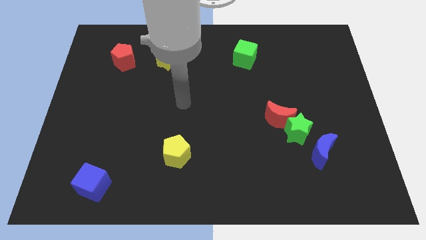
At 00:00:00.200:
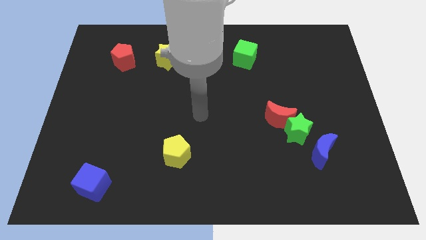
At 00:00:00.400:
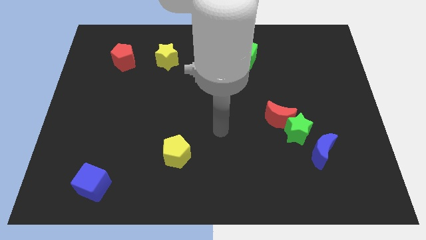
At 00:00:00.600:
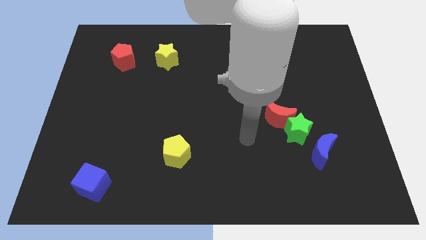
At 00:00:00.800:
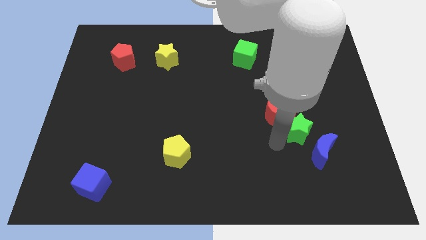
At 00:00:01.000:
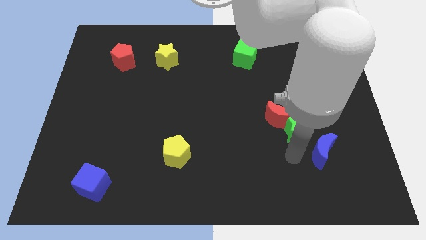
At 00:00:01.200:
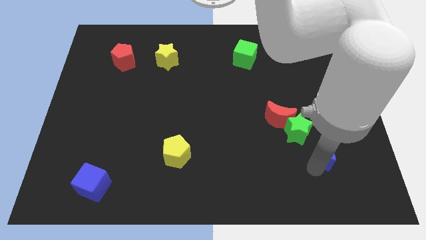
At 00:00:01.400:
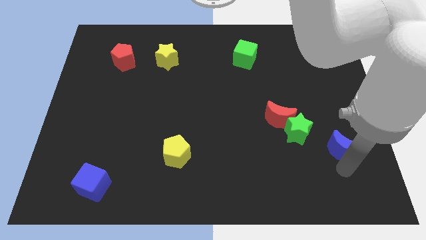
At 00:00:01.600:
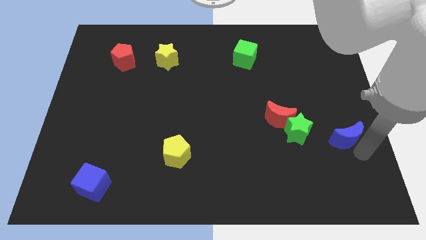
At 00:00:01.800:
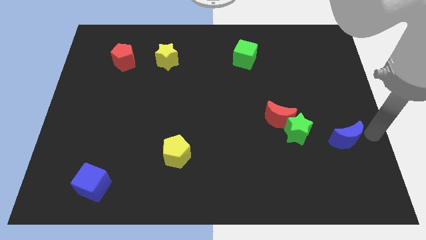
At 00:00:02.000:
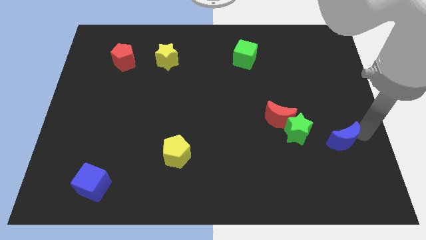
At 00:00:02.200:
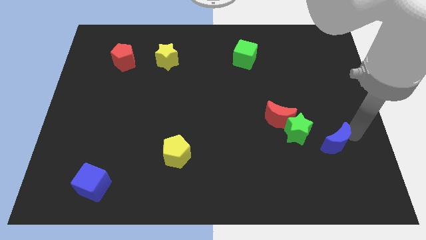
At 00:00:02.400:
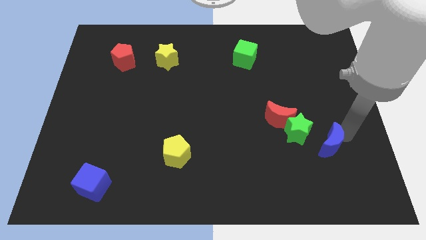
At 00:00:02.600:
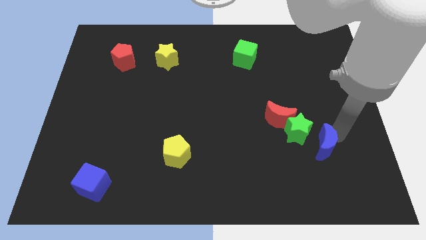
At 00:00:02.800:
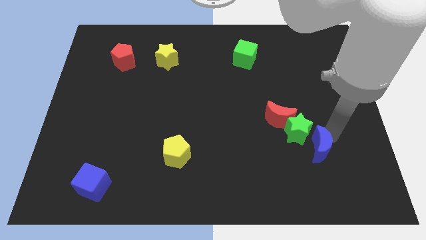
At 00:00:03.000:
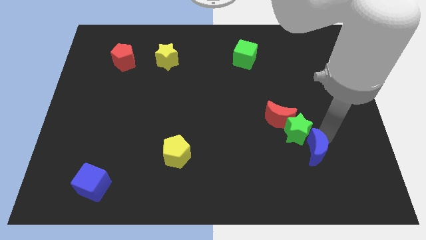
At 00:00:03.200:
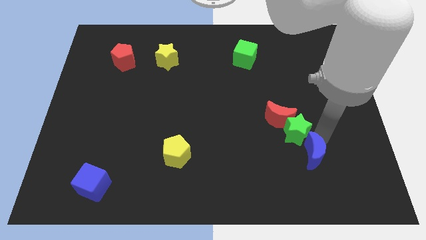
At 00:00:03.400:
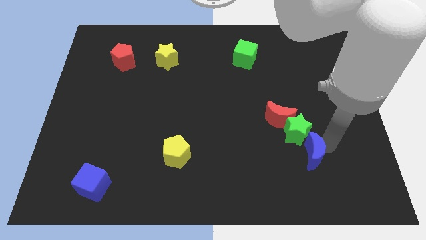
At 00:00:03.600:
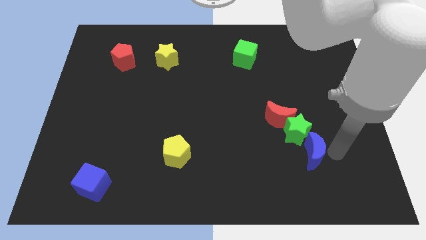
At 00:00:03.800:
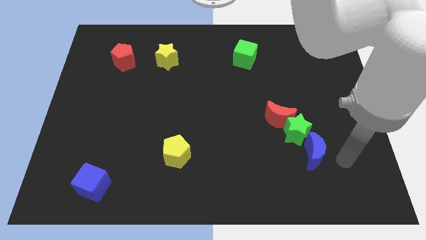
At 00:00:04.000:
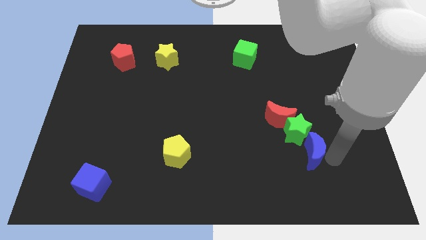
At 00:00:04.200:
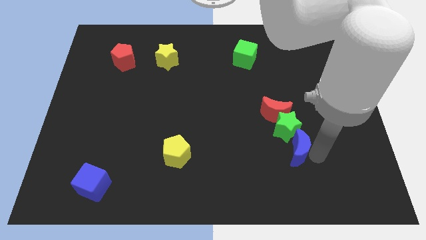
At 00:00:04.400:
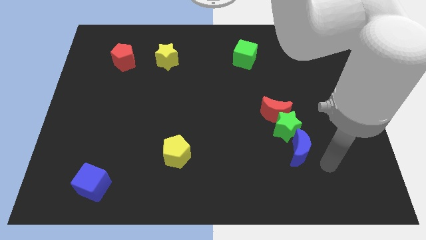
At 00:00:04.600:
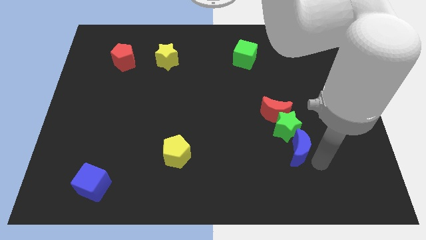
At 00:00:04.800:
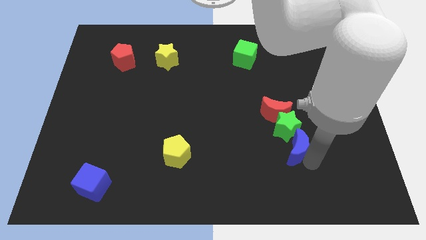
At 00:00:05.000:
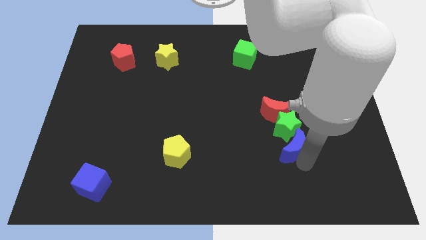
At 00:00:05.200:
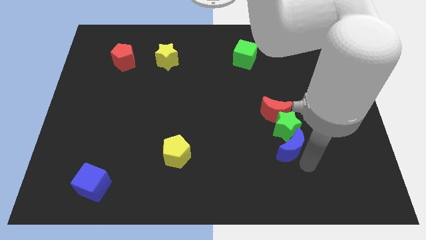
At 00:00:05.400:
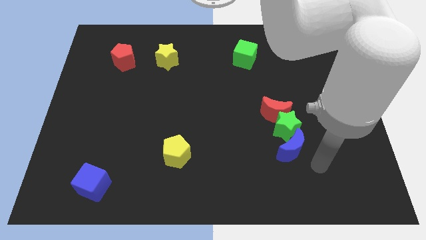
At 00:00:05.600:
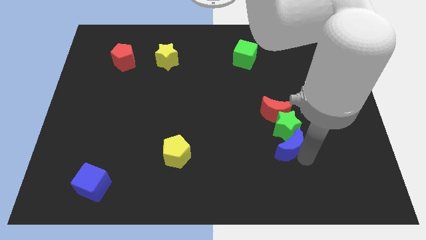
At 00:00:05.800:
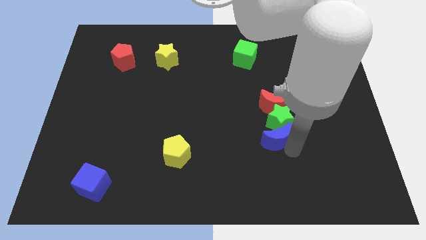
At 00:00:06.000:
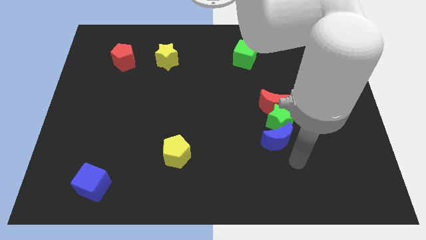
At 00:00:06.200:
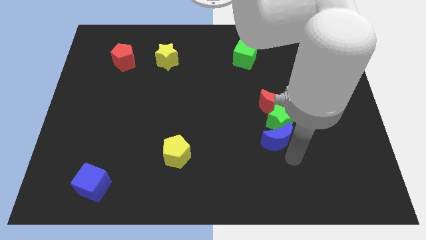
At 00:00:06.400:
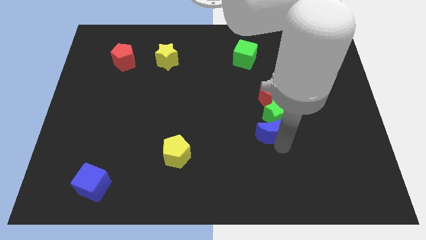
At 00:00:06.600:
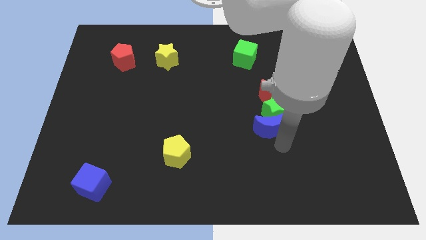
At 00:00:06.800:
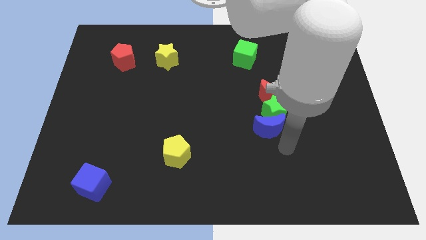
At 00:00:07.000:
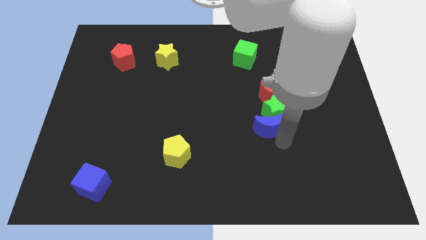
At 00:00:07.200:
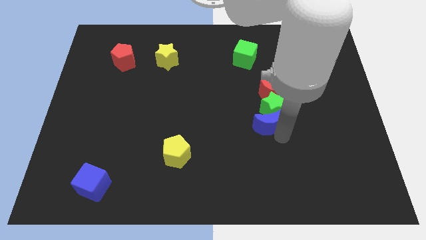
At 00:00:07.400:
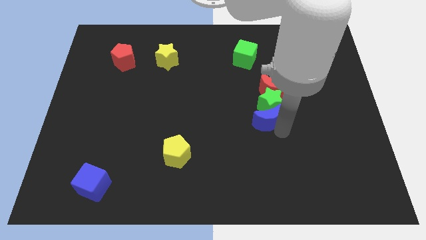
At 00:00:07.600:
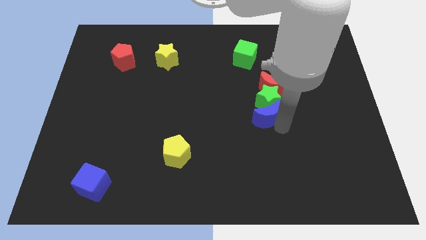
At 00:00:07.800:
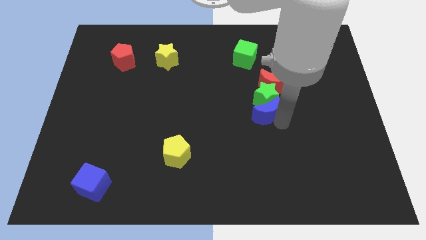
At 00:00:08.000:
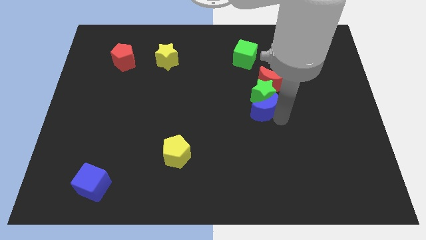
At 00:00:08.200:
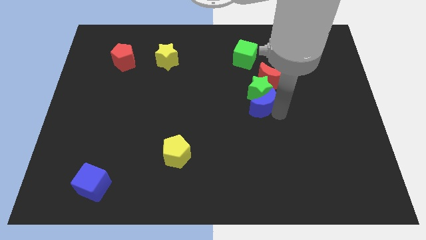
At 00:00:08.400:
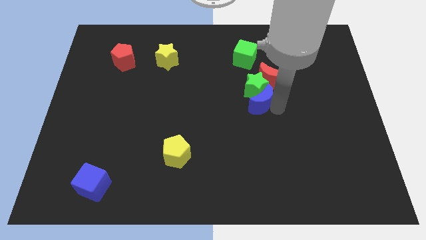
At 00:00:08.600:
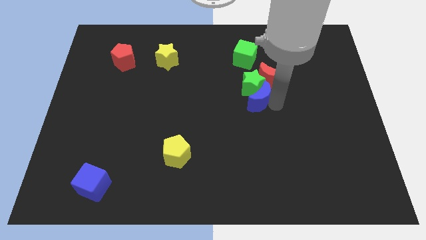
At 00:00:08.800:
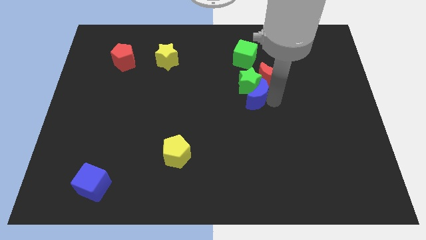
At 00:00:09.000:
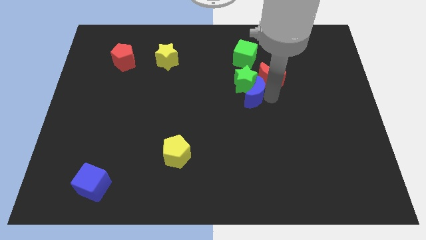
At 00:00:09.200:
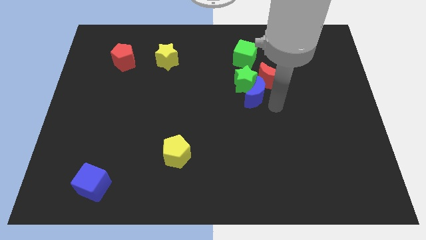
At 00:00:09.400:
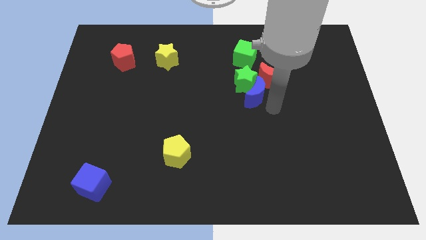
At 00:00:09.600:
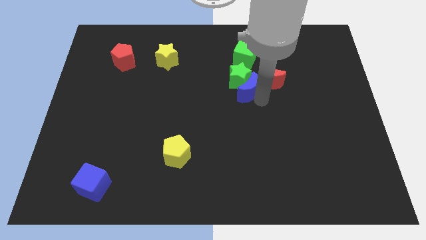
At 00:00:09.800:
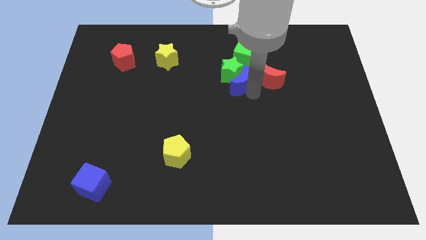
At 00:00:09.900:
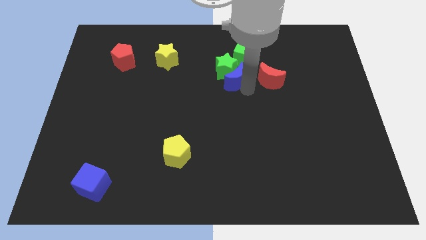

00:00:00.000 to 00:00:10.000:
push the blue moon diagonally down and to the left of the green cube

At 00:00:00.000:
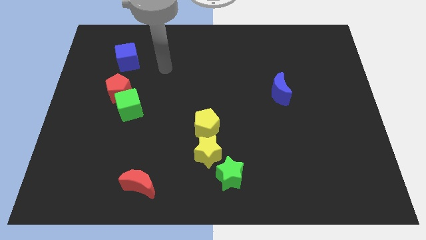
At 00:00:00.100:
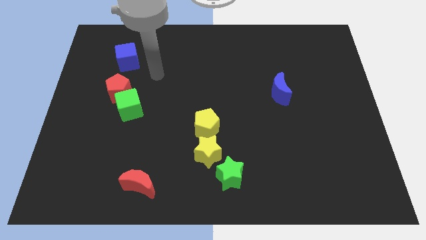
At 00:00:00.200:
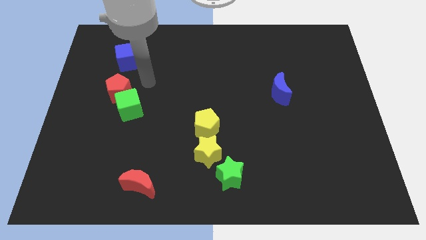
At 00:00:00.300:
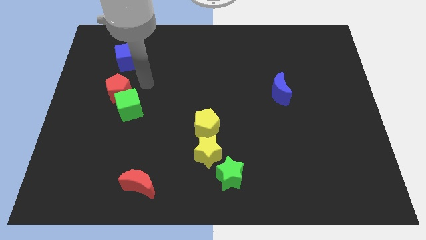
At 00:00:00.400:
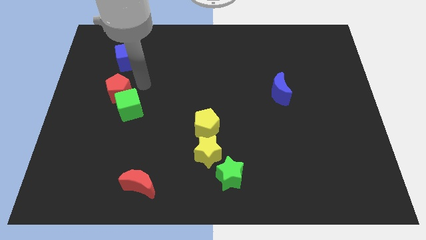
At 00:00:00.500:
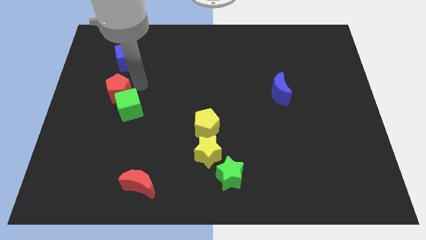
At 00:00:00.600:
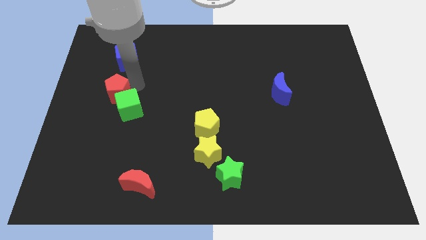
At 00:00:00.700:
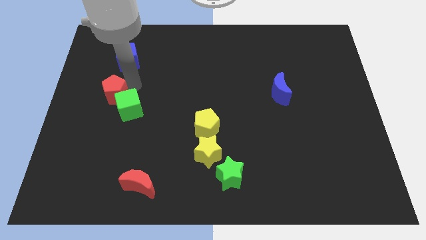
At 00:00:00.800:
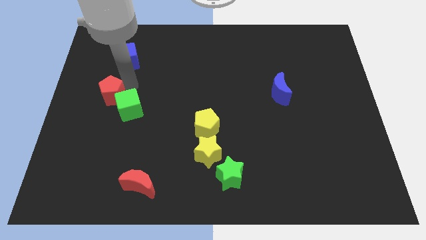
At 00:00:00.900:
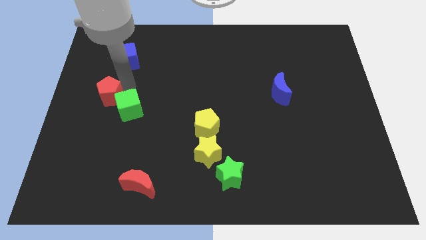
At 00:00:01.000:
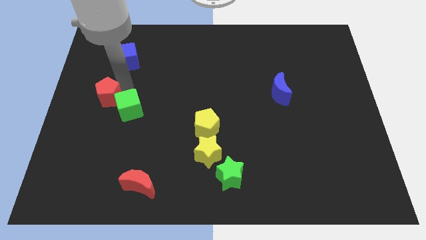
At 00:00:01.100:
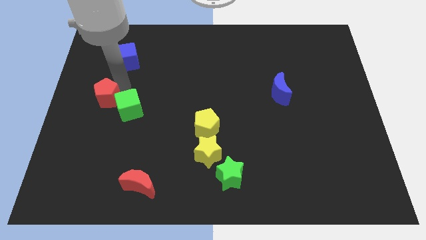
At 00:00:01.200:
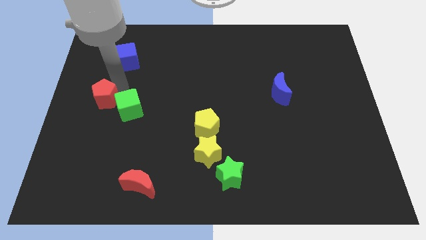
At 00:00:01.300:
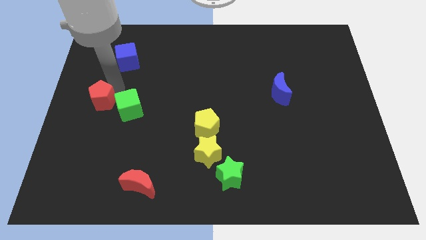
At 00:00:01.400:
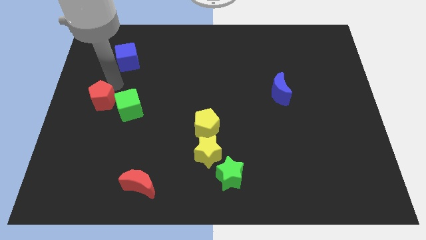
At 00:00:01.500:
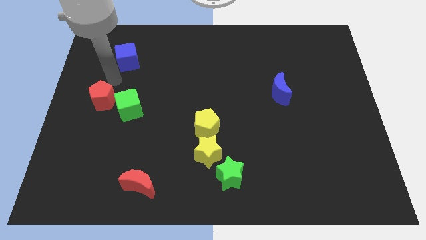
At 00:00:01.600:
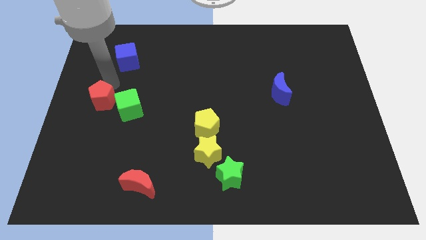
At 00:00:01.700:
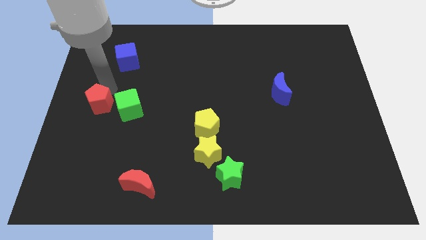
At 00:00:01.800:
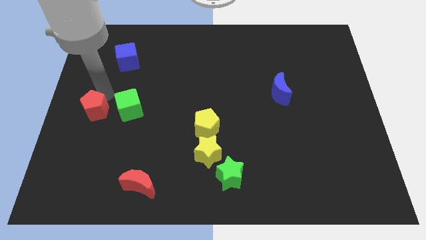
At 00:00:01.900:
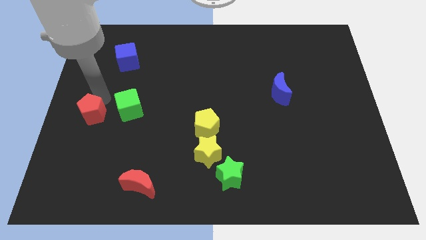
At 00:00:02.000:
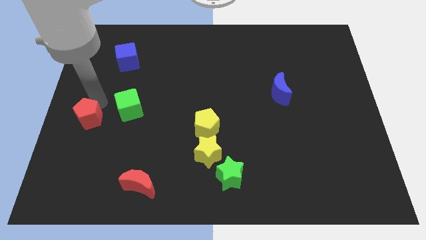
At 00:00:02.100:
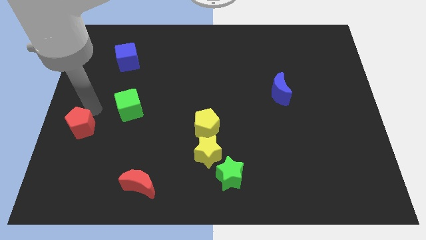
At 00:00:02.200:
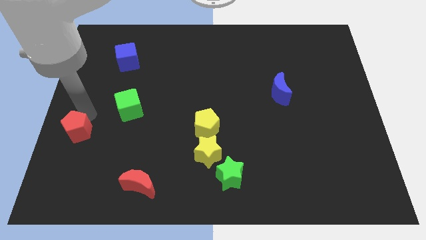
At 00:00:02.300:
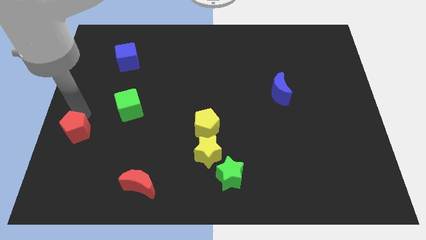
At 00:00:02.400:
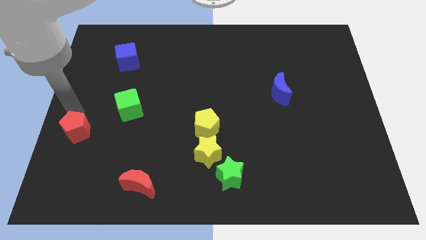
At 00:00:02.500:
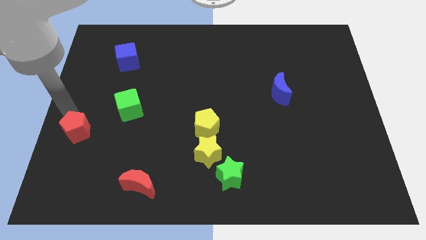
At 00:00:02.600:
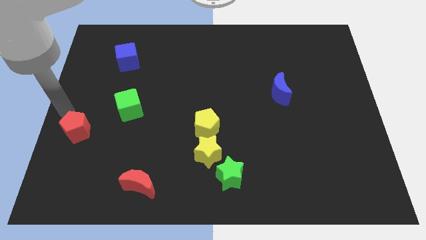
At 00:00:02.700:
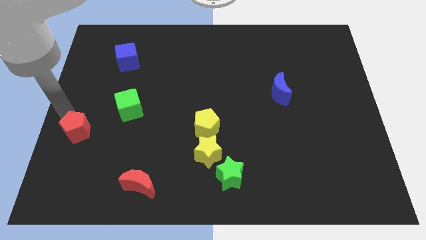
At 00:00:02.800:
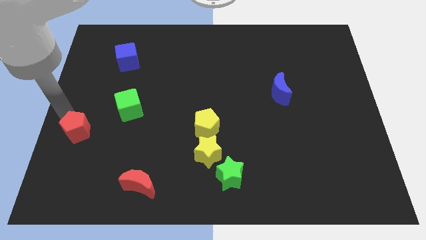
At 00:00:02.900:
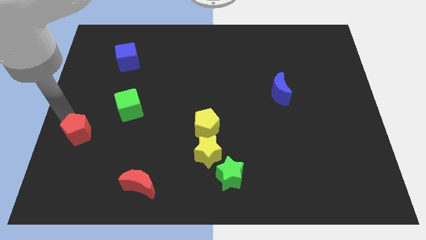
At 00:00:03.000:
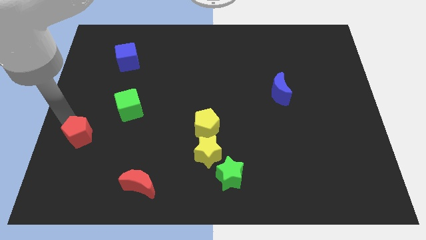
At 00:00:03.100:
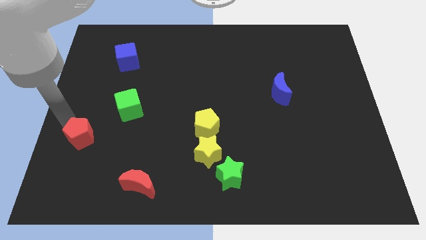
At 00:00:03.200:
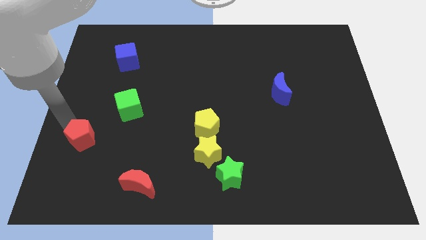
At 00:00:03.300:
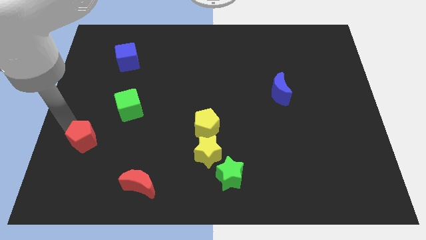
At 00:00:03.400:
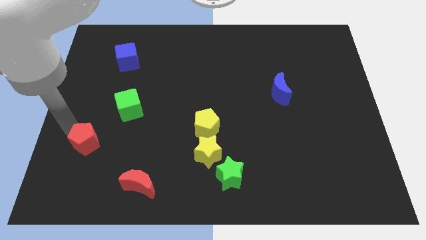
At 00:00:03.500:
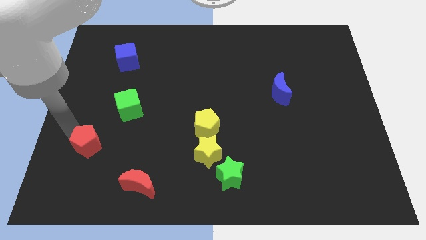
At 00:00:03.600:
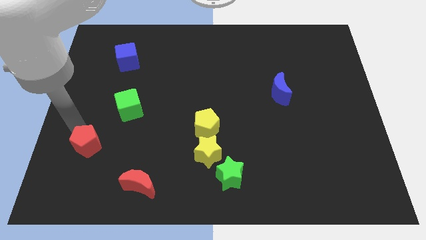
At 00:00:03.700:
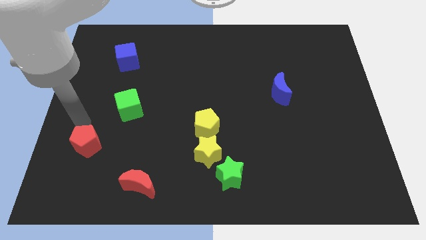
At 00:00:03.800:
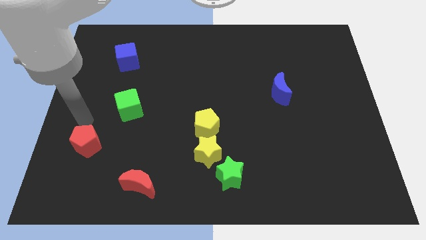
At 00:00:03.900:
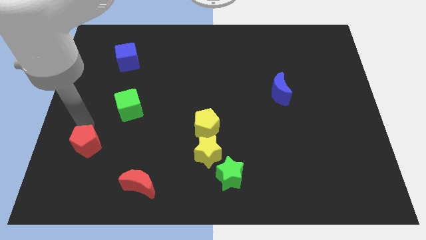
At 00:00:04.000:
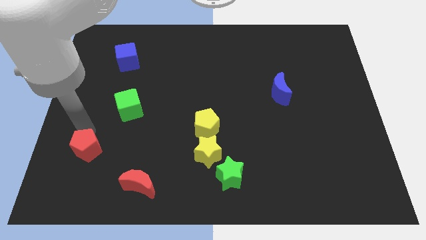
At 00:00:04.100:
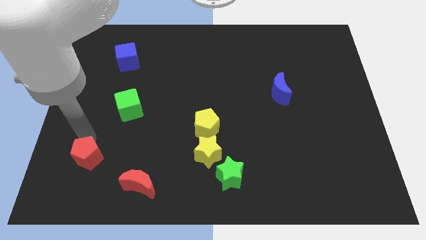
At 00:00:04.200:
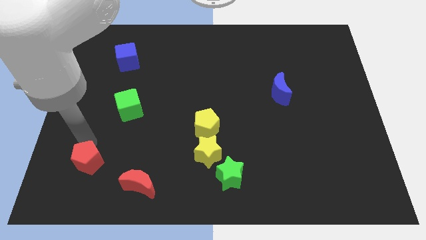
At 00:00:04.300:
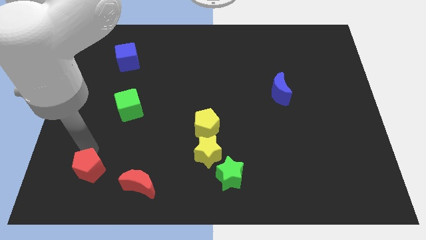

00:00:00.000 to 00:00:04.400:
move the red pentagon to the left side of the red moon
